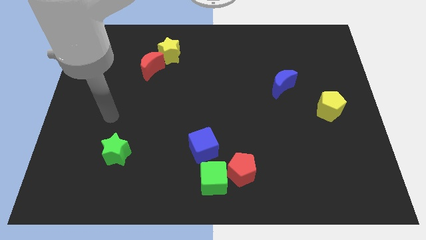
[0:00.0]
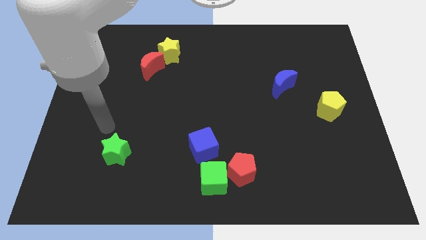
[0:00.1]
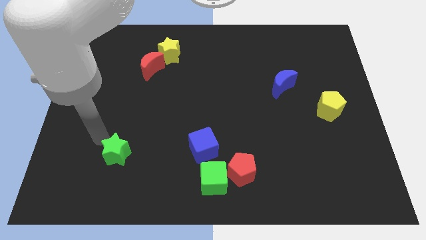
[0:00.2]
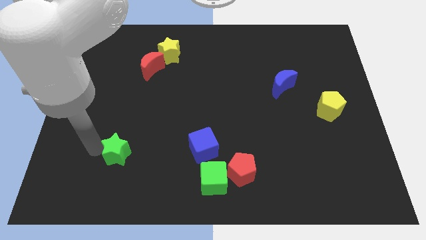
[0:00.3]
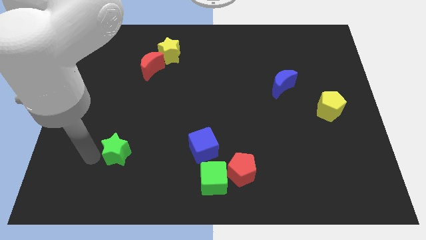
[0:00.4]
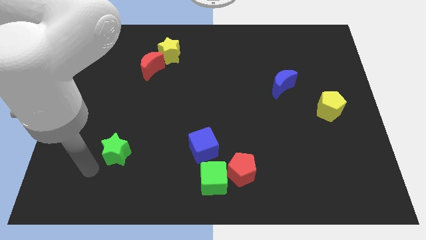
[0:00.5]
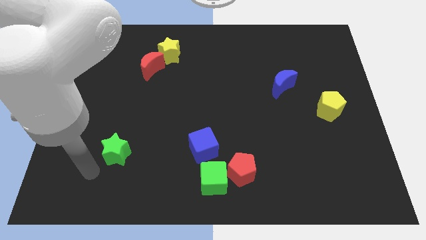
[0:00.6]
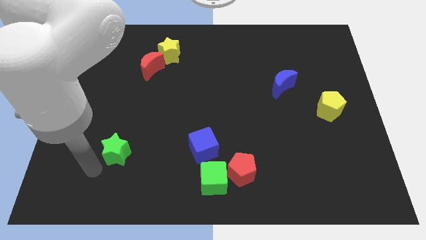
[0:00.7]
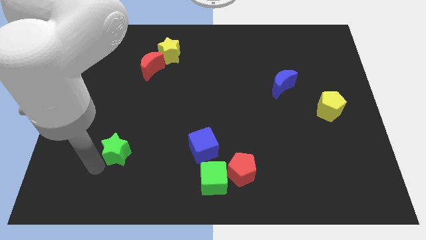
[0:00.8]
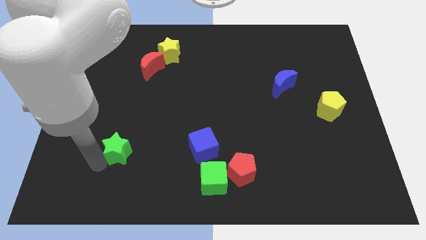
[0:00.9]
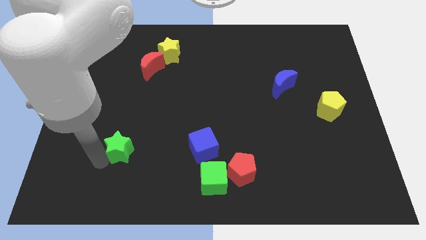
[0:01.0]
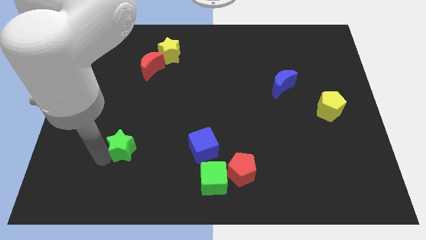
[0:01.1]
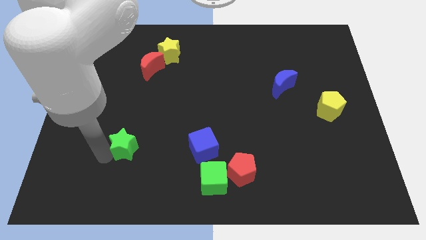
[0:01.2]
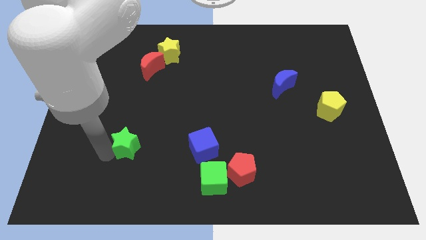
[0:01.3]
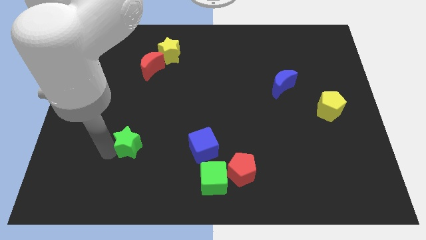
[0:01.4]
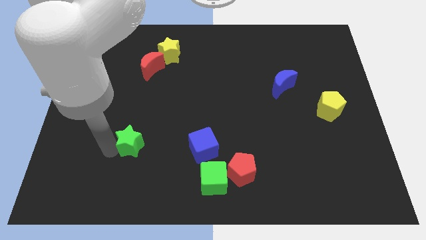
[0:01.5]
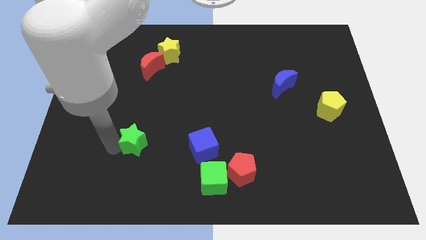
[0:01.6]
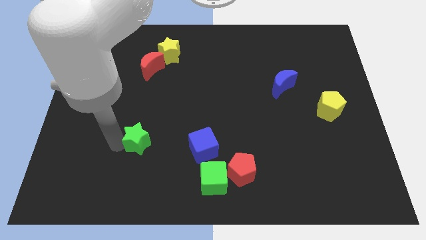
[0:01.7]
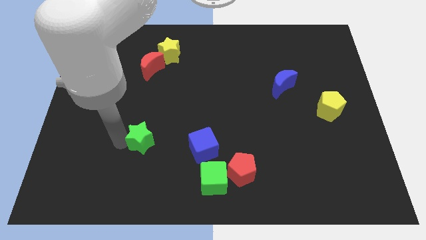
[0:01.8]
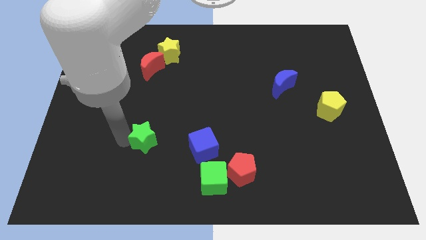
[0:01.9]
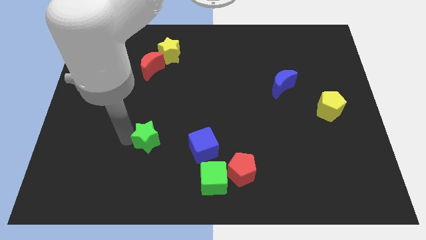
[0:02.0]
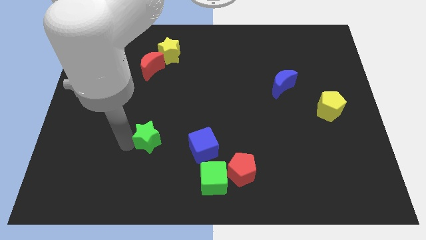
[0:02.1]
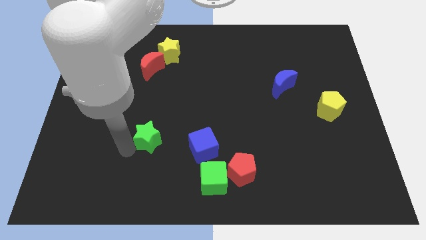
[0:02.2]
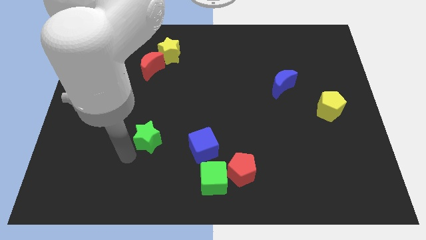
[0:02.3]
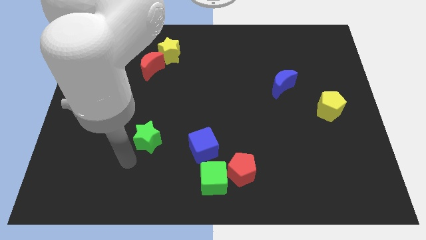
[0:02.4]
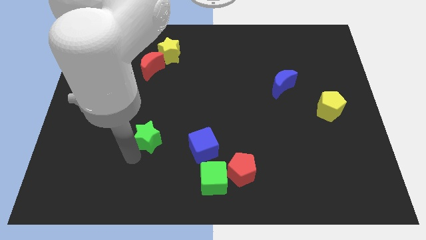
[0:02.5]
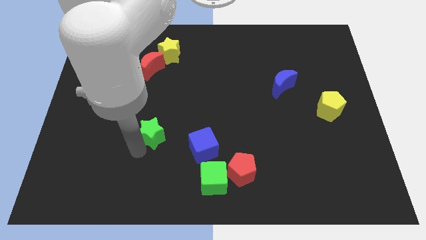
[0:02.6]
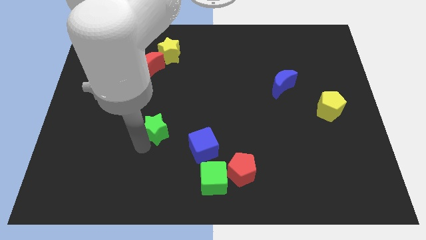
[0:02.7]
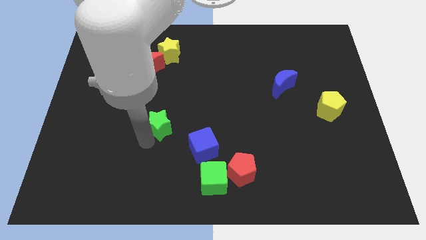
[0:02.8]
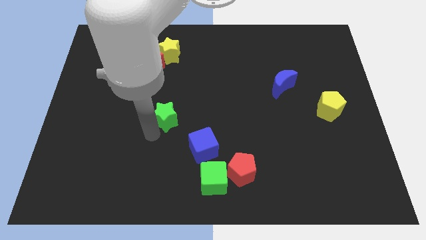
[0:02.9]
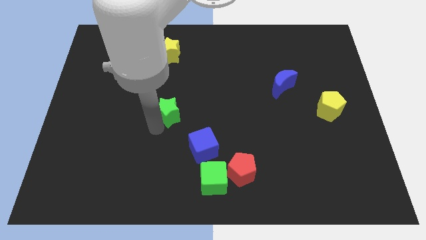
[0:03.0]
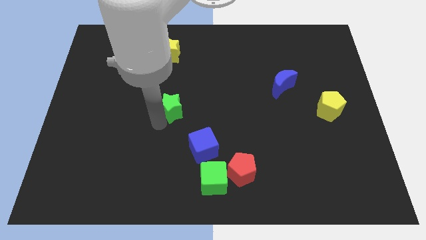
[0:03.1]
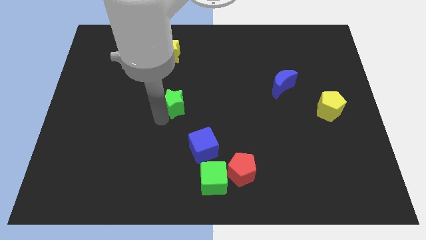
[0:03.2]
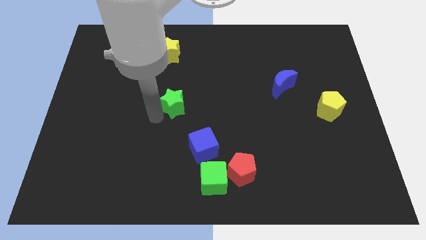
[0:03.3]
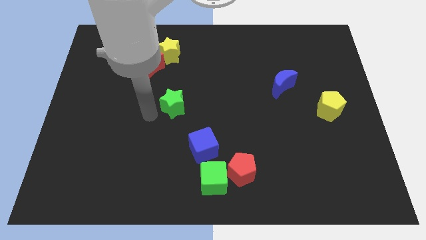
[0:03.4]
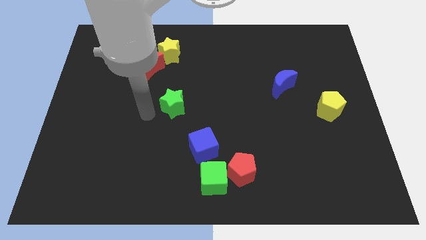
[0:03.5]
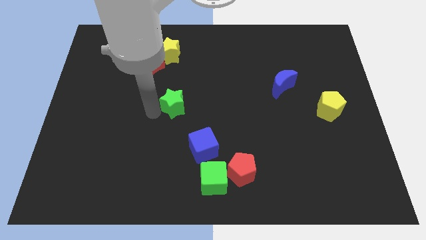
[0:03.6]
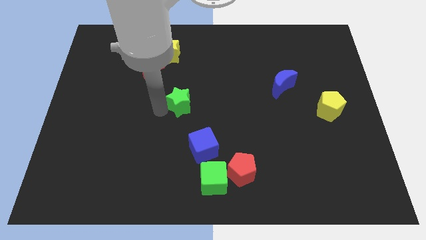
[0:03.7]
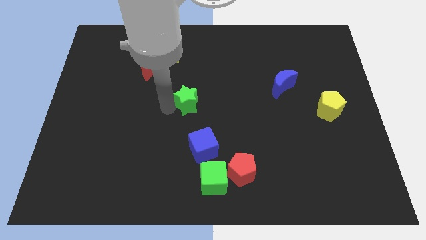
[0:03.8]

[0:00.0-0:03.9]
move the green star upwards and then right

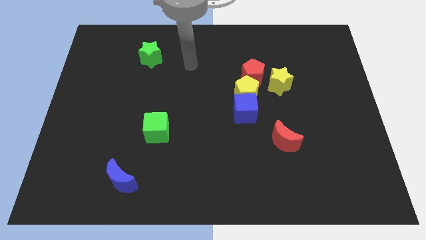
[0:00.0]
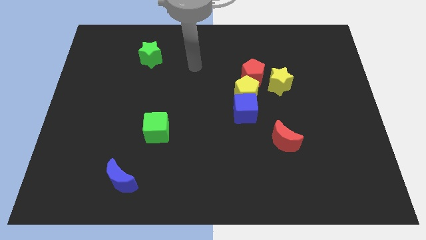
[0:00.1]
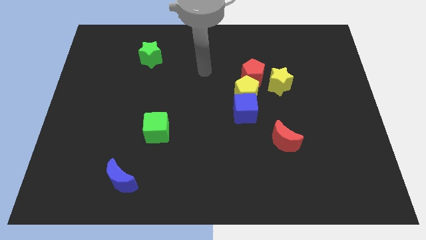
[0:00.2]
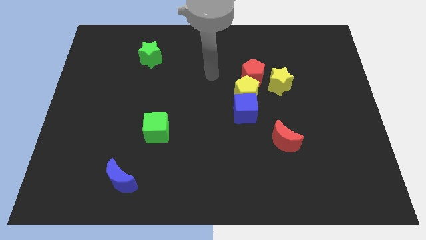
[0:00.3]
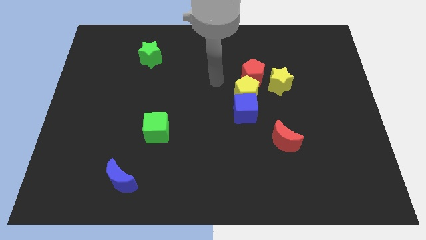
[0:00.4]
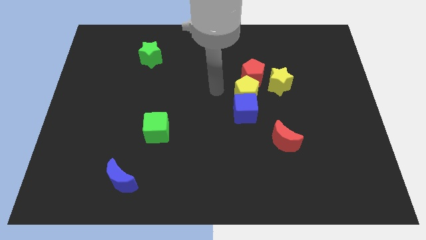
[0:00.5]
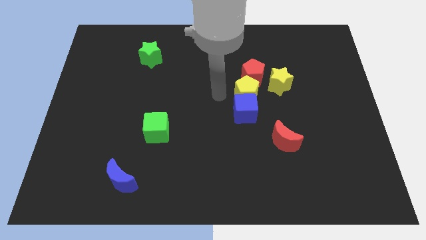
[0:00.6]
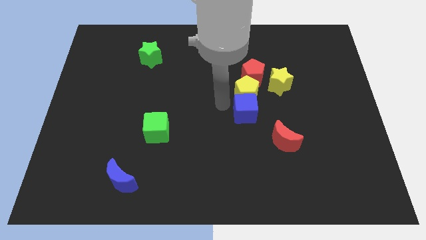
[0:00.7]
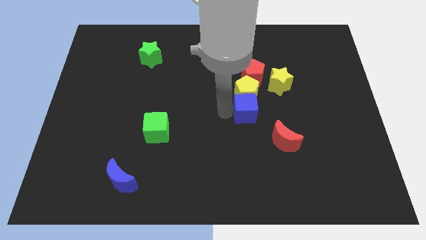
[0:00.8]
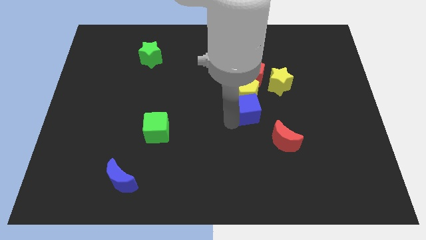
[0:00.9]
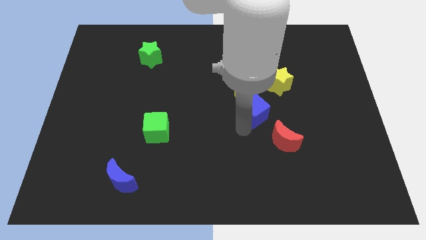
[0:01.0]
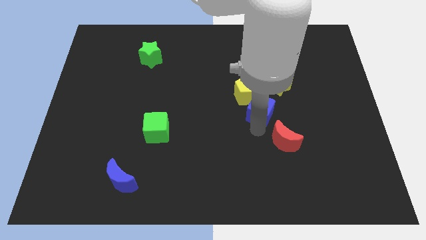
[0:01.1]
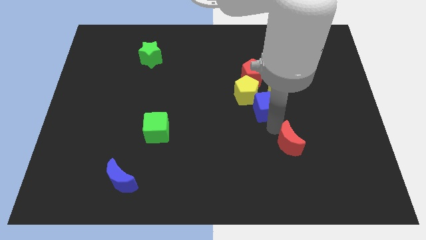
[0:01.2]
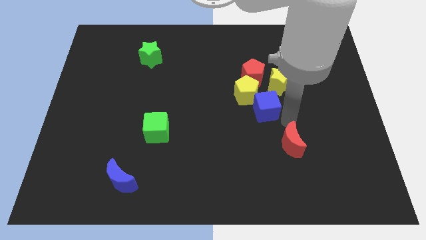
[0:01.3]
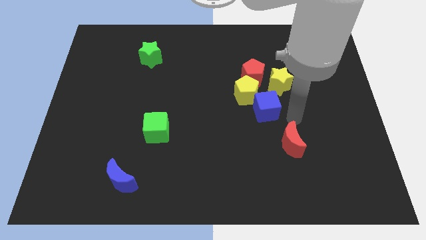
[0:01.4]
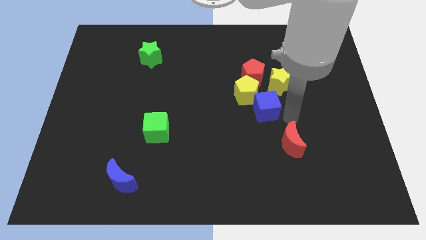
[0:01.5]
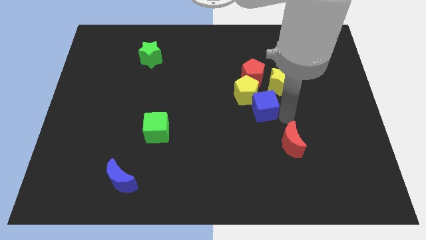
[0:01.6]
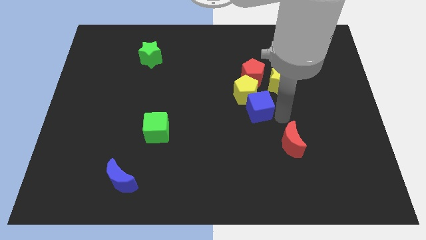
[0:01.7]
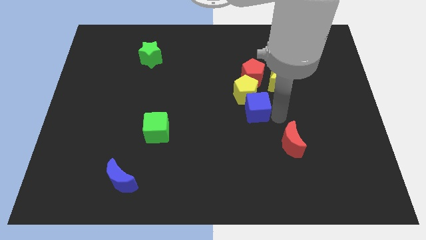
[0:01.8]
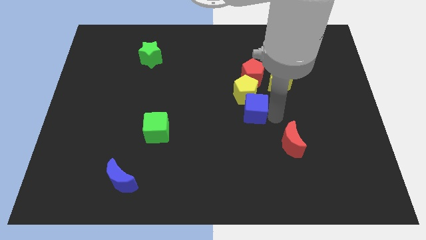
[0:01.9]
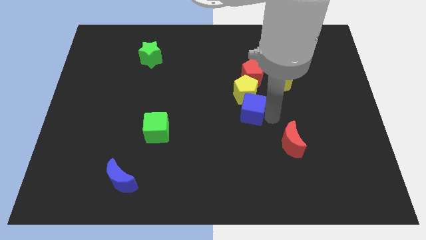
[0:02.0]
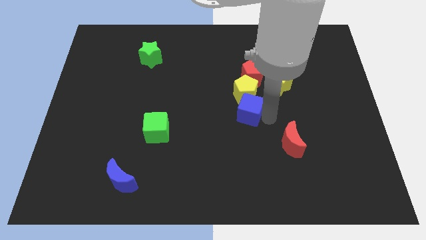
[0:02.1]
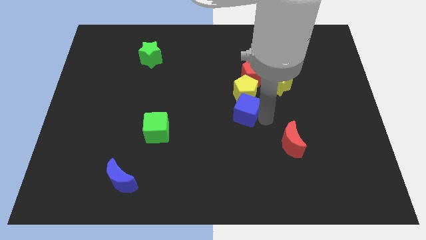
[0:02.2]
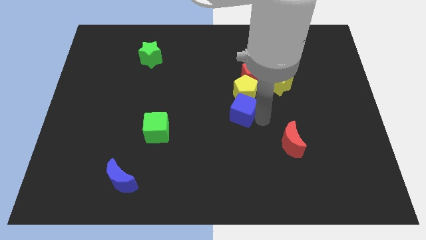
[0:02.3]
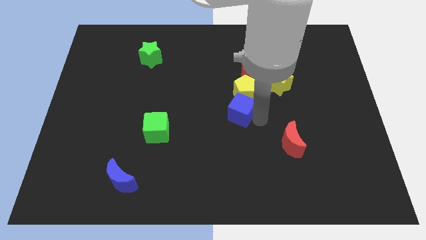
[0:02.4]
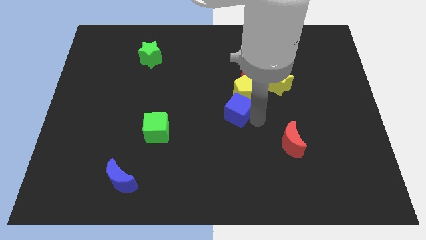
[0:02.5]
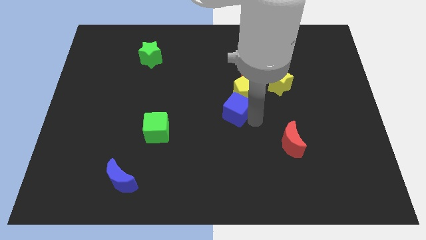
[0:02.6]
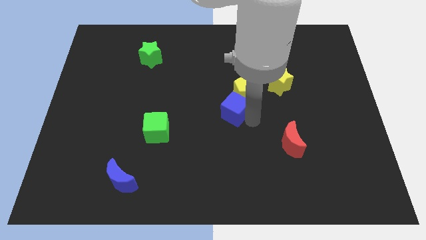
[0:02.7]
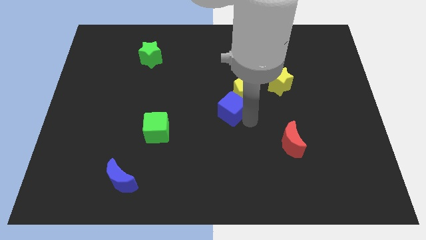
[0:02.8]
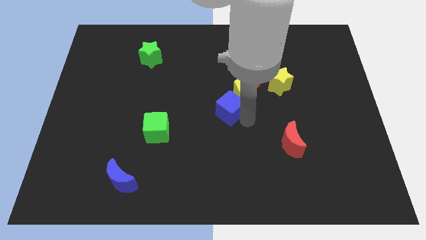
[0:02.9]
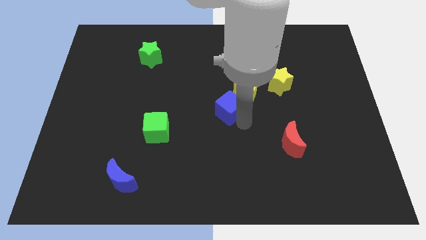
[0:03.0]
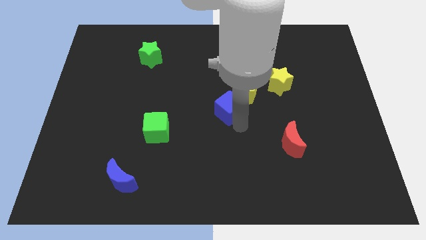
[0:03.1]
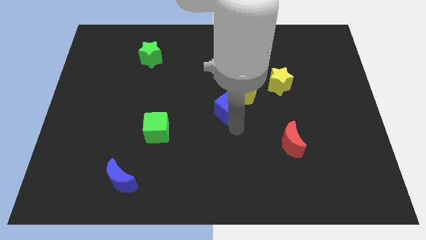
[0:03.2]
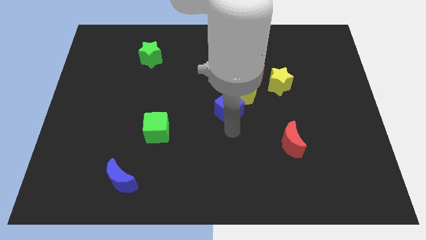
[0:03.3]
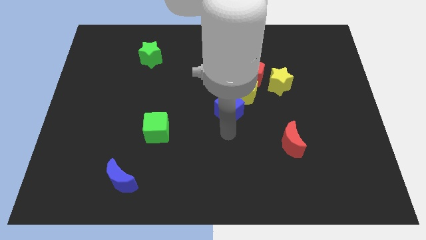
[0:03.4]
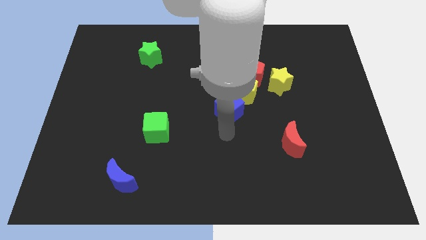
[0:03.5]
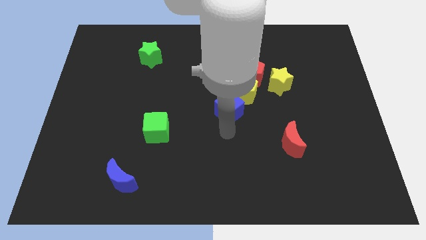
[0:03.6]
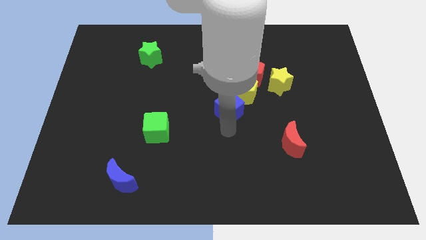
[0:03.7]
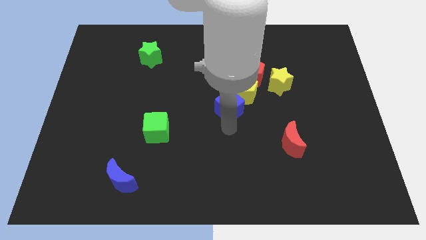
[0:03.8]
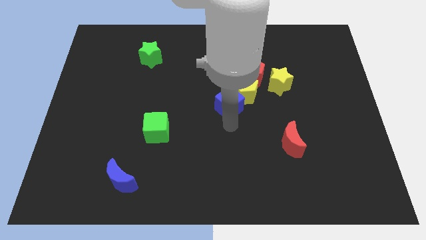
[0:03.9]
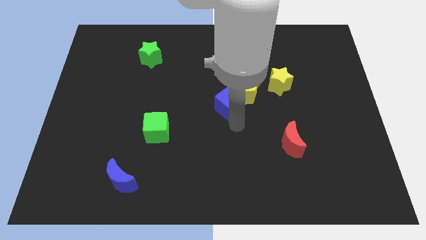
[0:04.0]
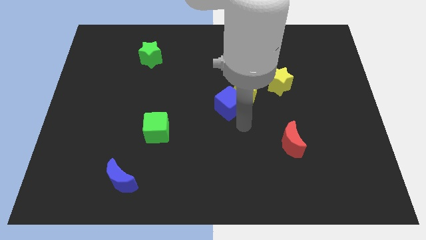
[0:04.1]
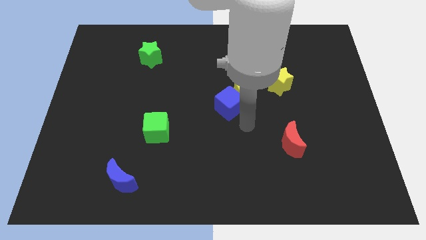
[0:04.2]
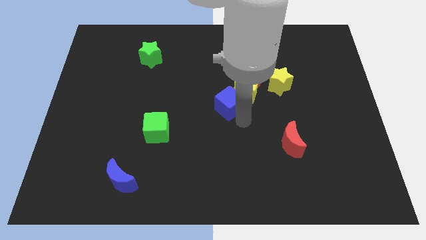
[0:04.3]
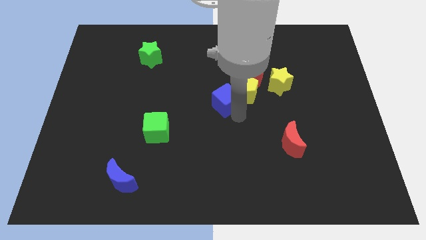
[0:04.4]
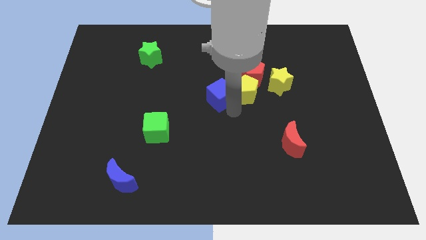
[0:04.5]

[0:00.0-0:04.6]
move the blue cube slightly up and then left

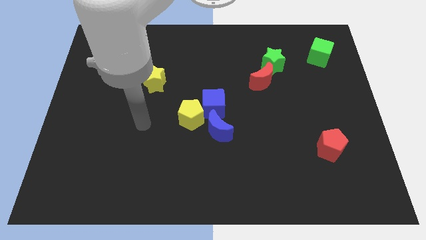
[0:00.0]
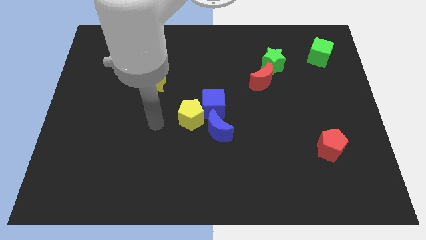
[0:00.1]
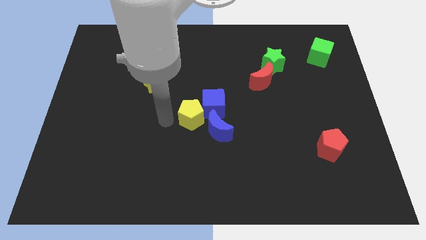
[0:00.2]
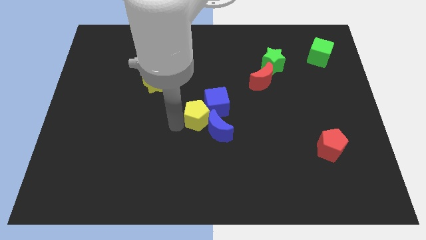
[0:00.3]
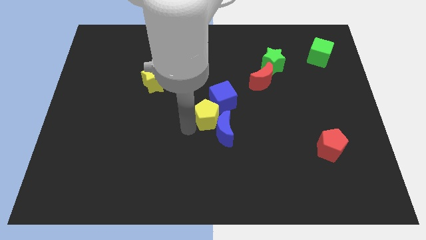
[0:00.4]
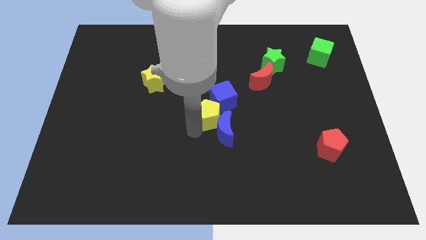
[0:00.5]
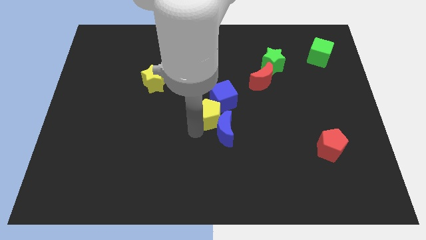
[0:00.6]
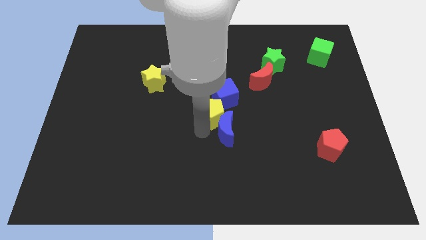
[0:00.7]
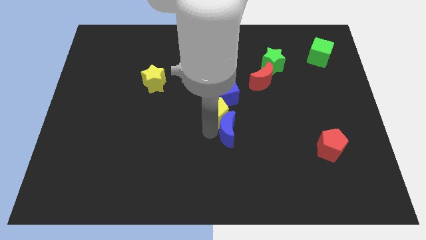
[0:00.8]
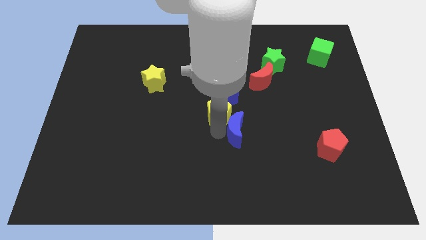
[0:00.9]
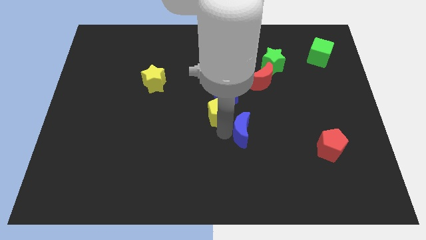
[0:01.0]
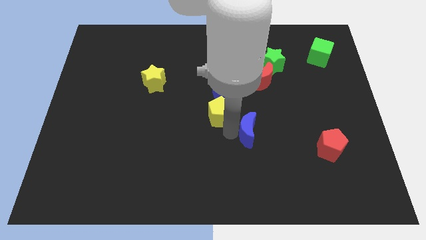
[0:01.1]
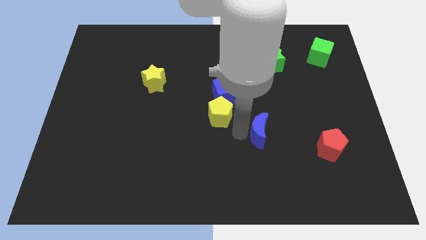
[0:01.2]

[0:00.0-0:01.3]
slightly slide the blue moon right
